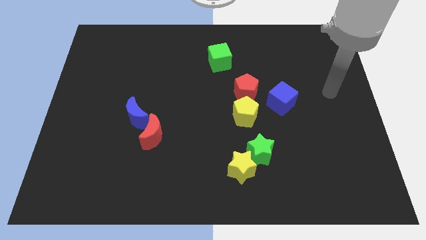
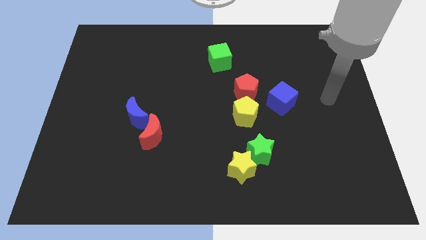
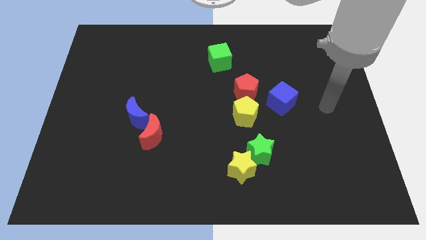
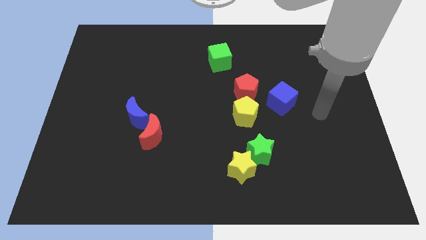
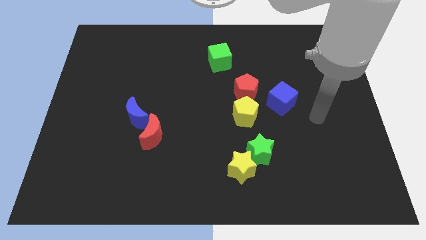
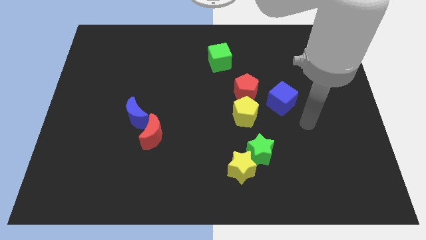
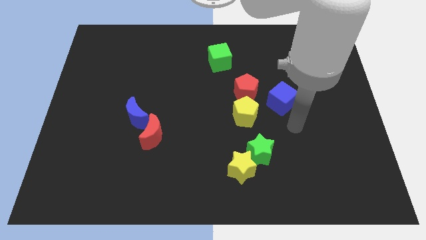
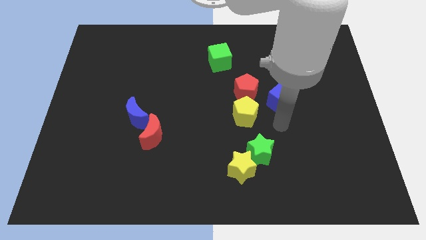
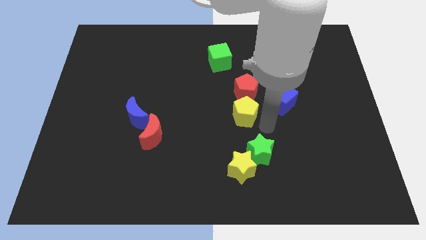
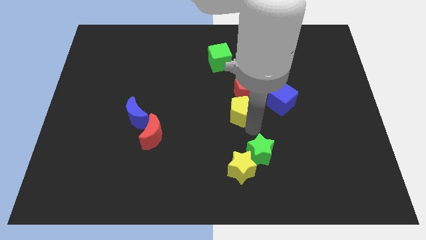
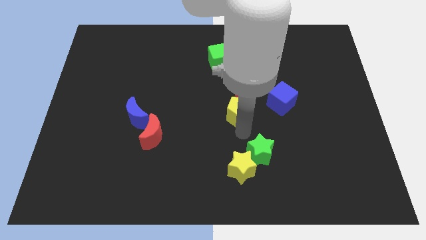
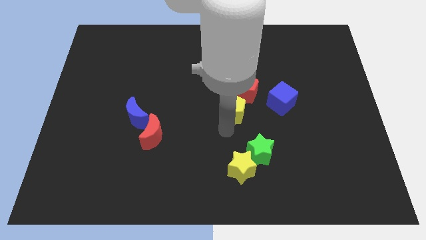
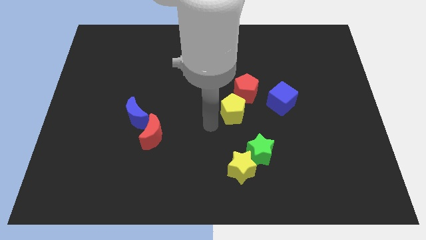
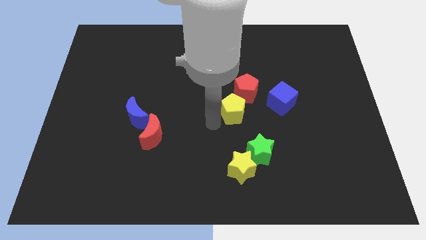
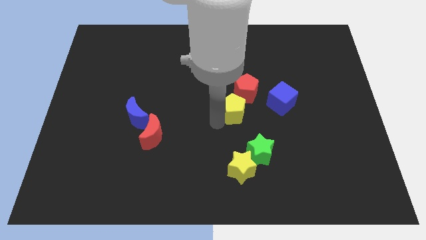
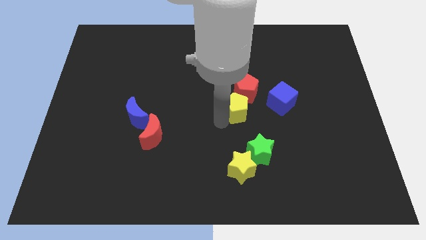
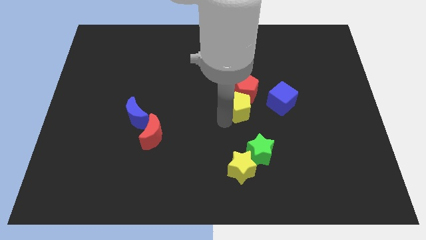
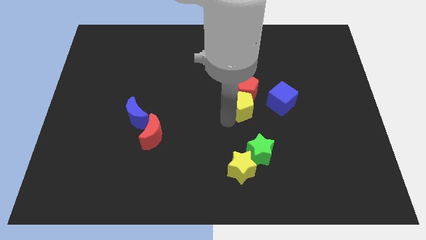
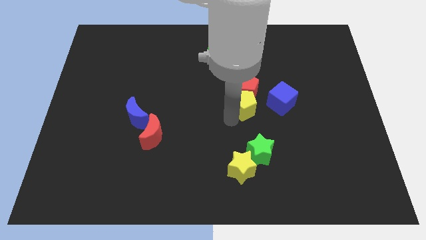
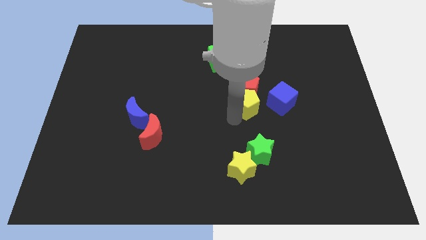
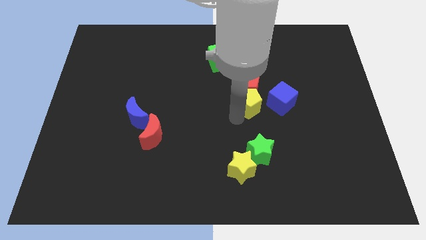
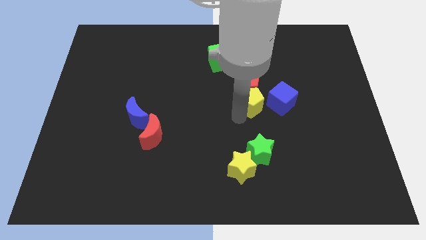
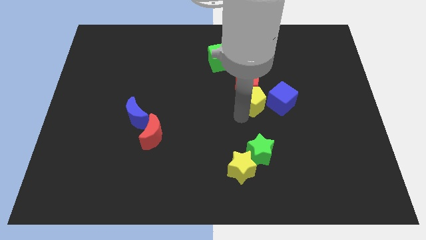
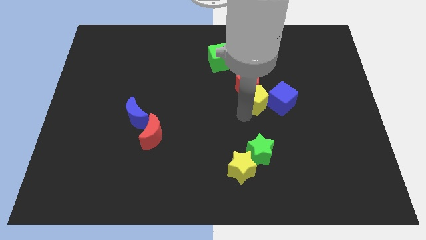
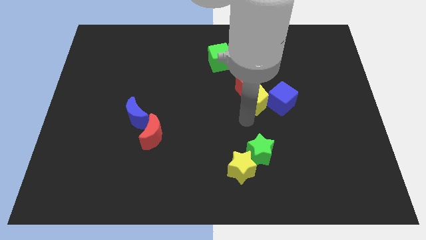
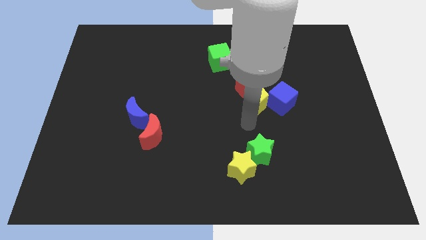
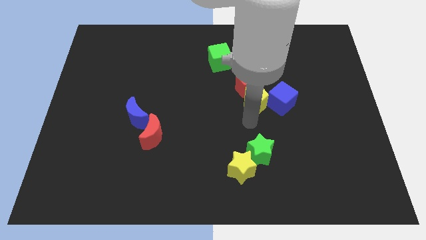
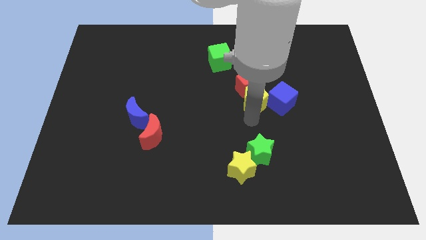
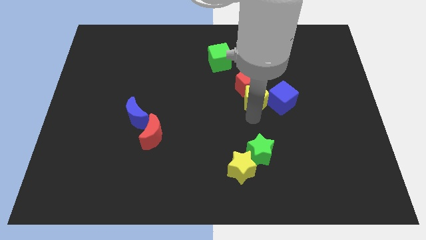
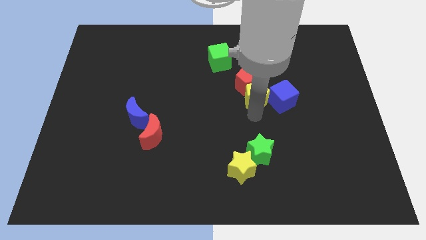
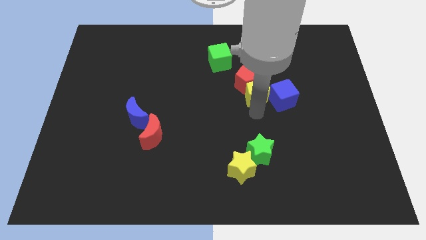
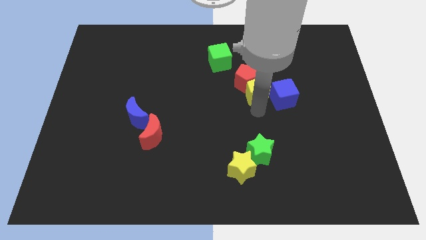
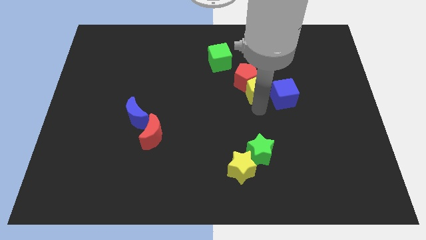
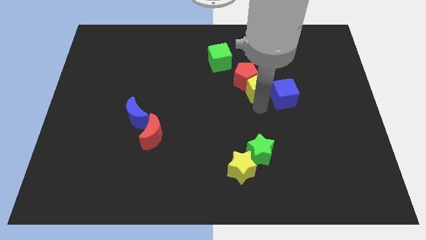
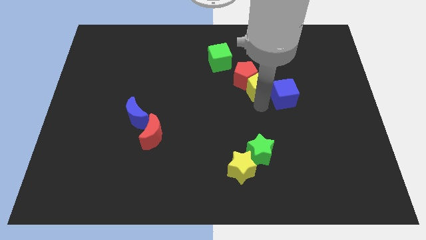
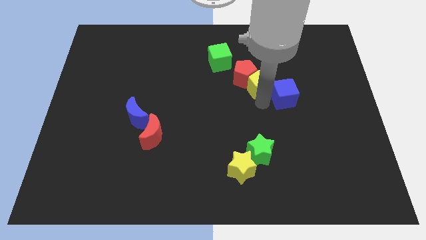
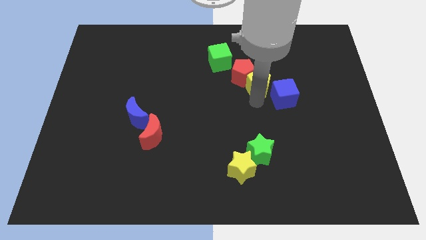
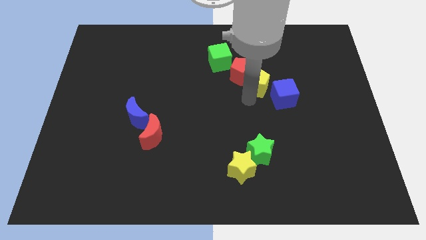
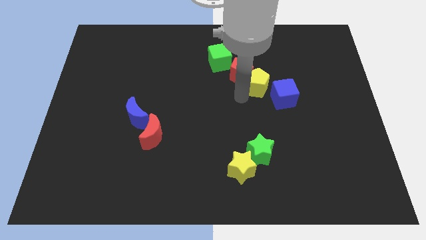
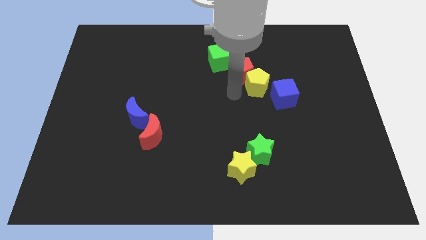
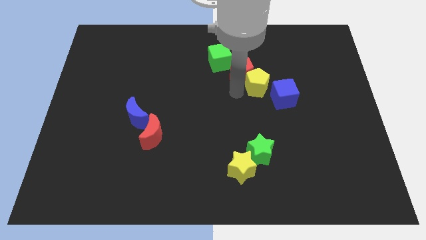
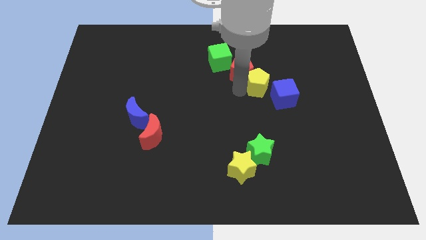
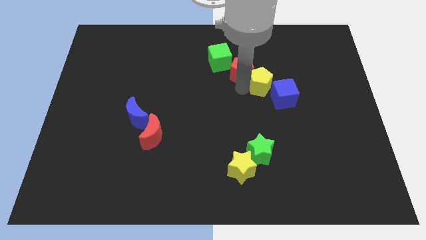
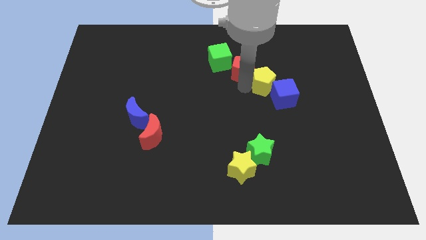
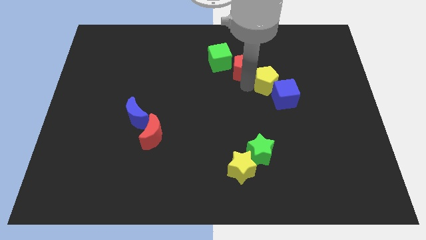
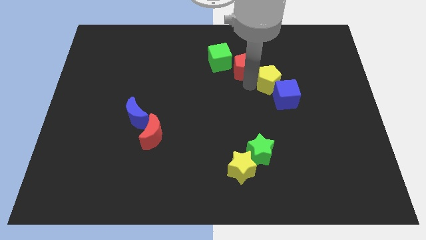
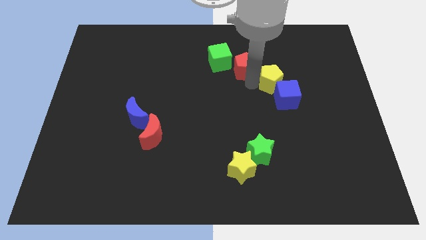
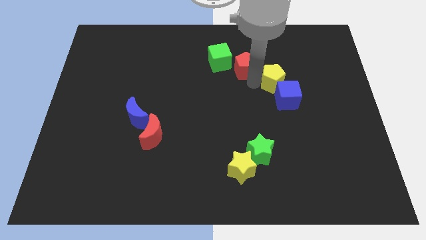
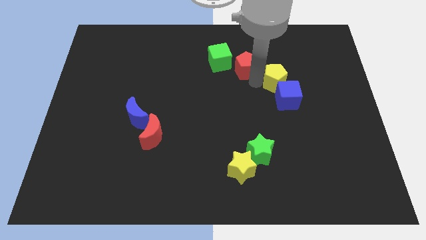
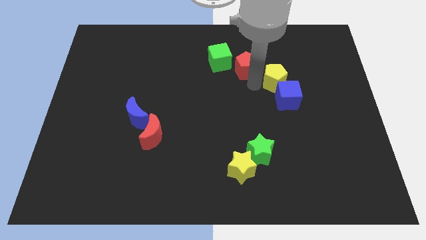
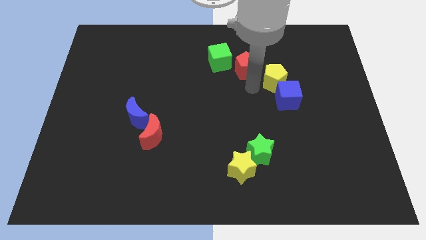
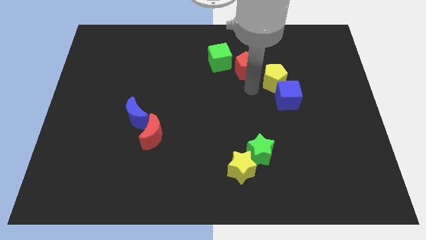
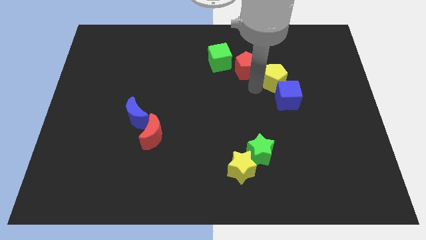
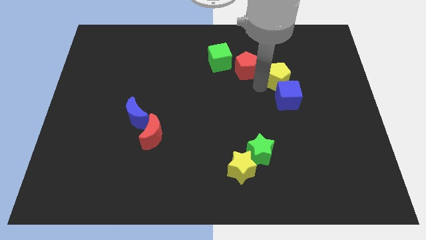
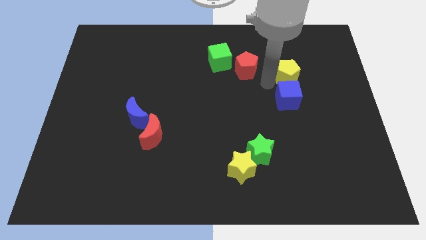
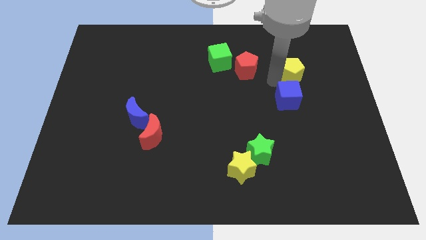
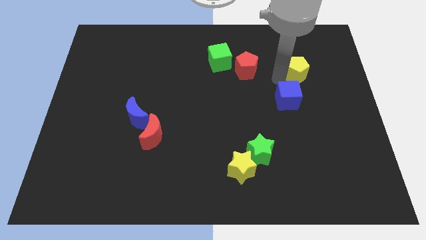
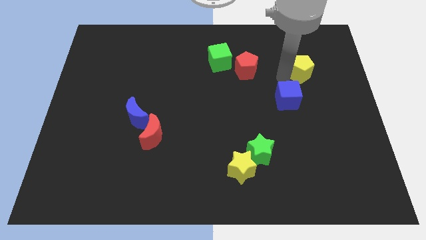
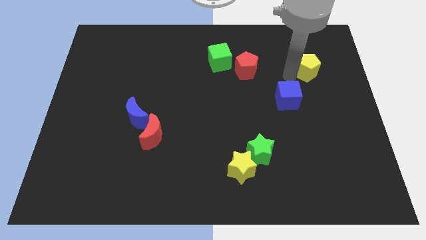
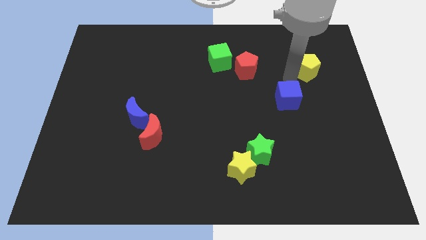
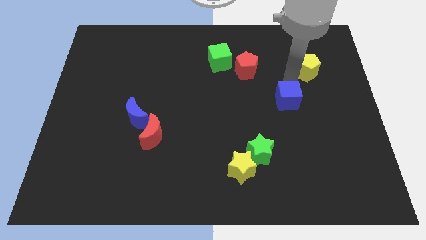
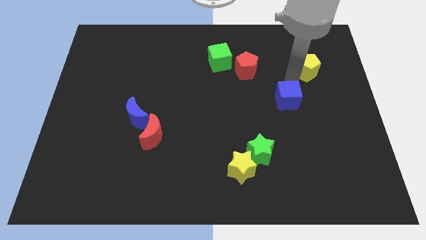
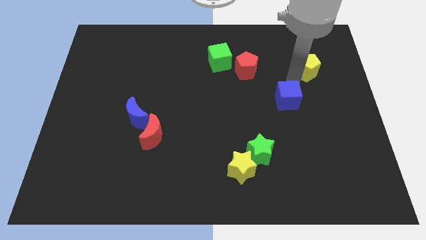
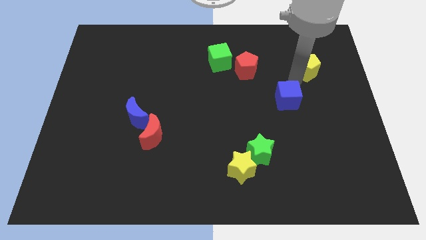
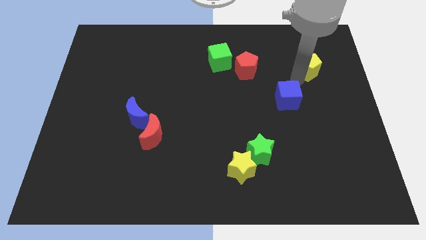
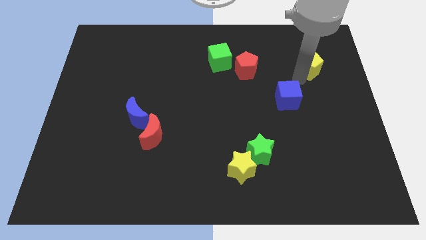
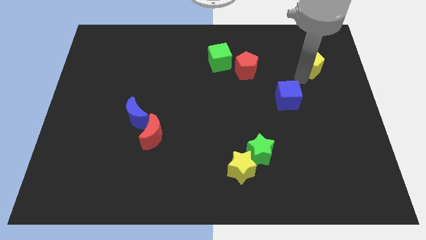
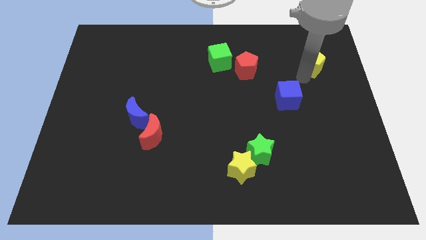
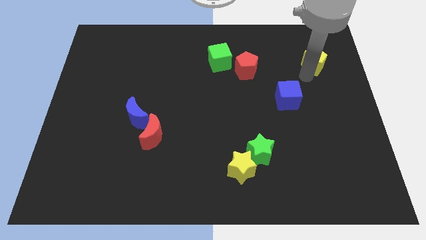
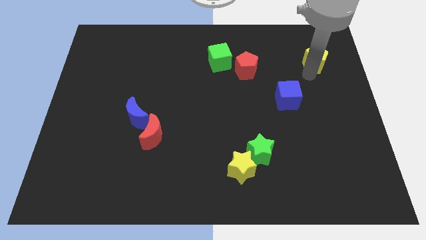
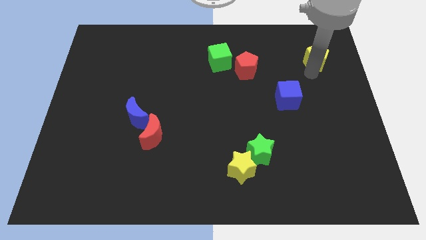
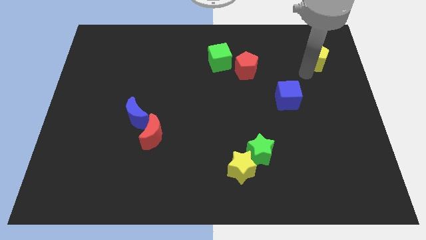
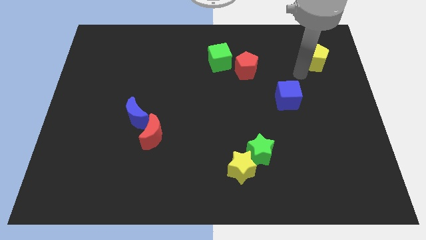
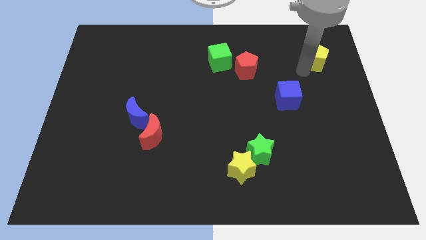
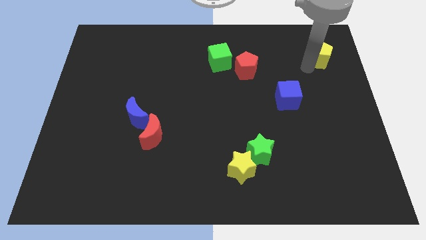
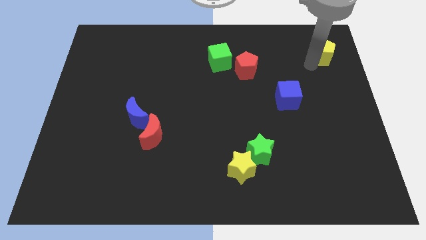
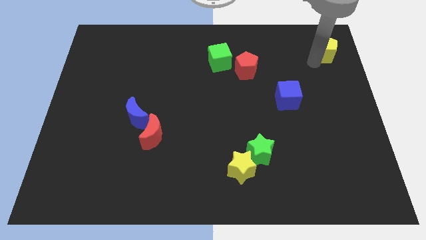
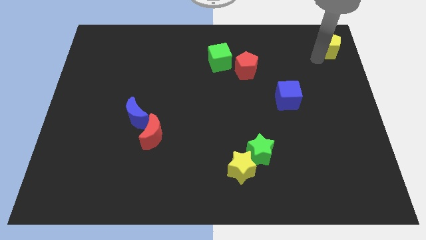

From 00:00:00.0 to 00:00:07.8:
push the yellow pentagon to the top right of the board

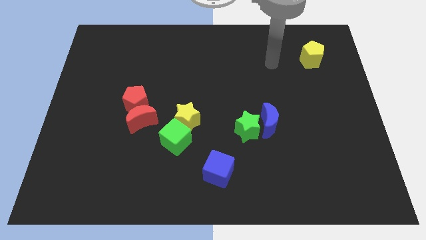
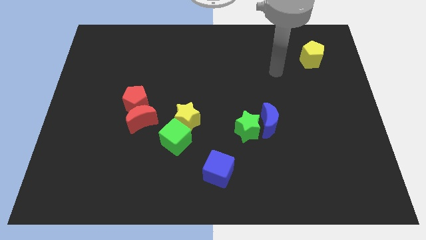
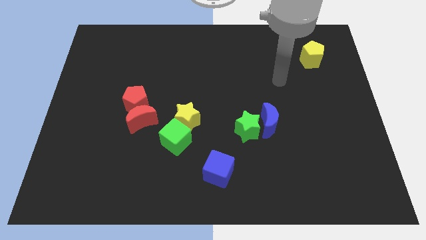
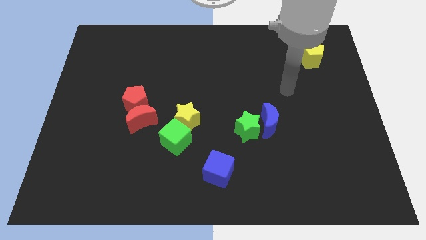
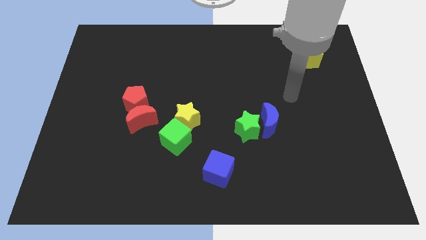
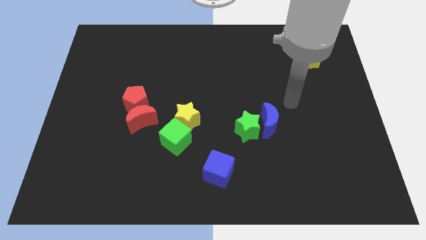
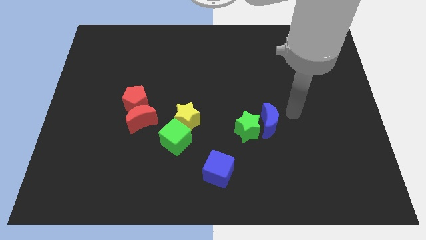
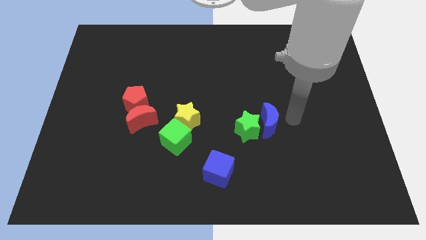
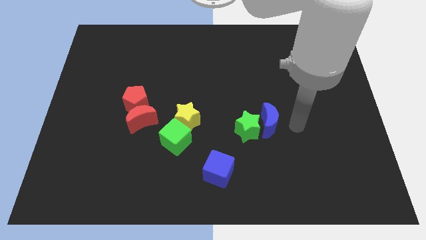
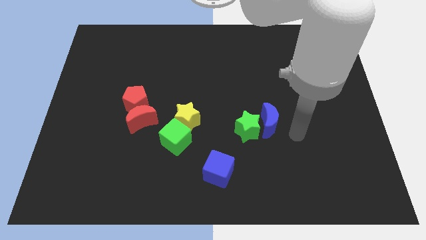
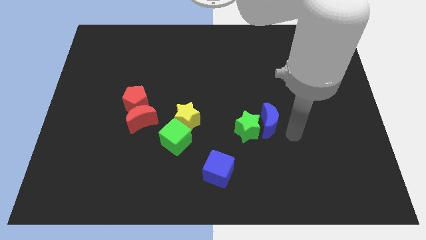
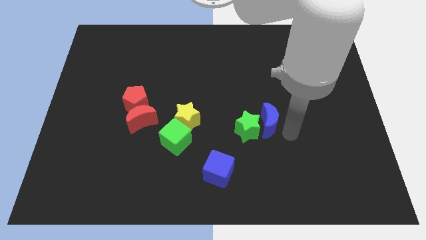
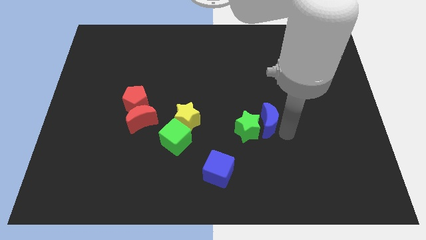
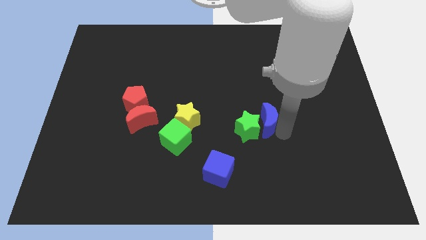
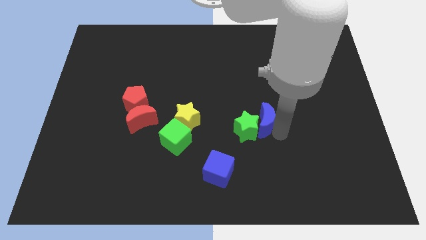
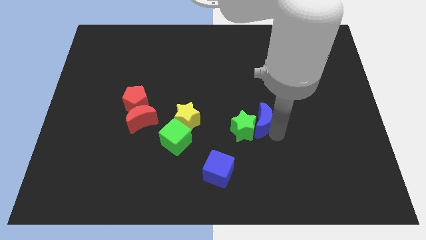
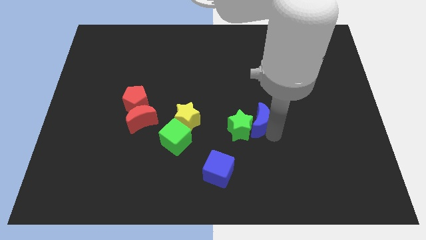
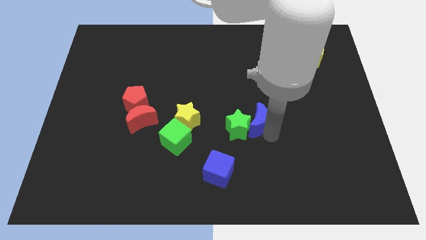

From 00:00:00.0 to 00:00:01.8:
slide the blue moon to the middle of the board
